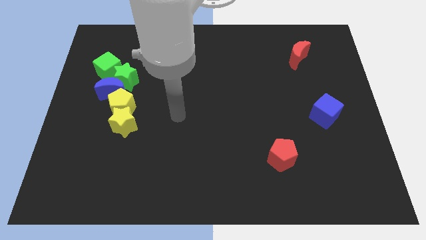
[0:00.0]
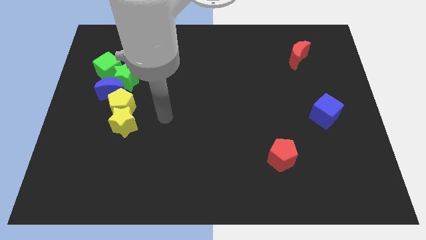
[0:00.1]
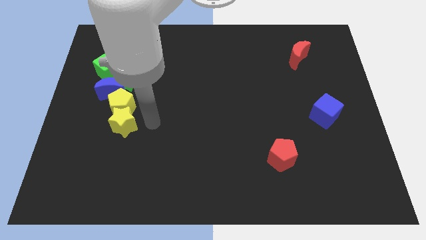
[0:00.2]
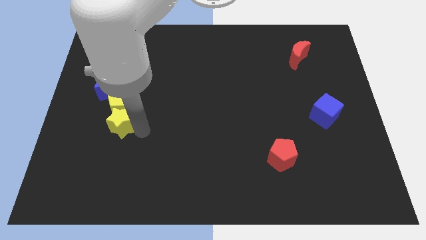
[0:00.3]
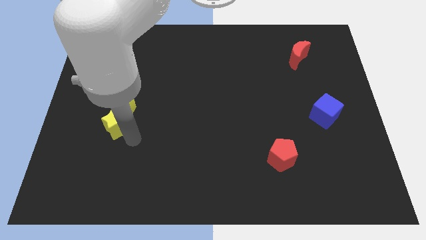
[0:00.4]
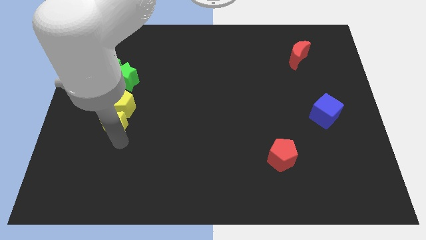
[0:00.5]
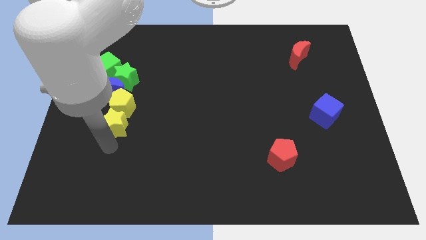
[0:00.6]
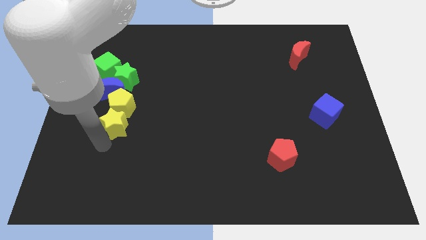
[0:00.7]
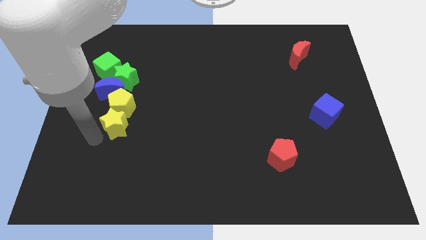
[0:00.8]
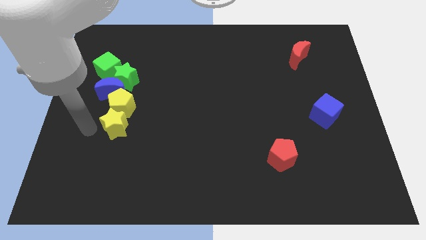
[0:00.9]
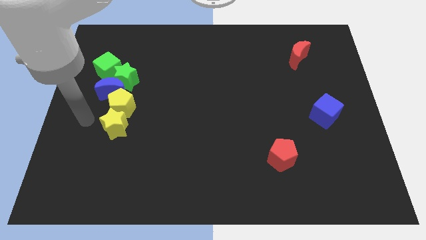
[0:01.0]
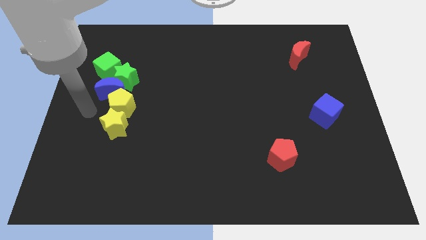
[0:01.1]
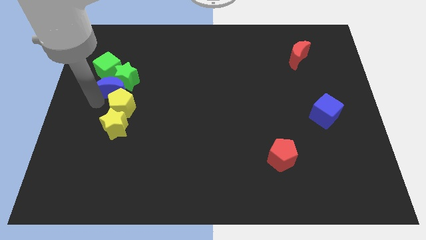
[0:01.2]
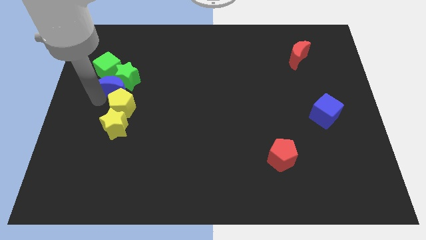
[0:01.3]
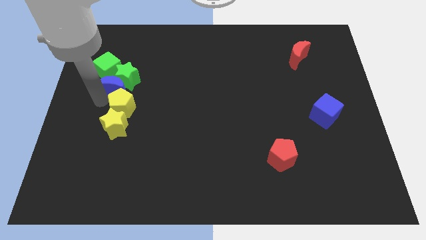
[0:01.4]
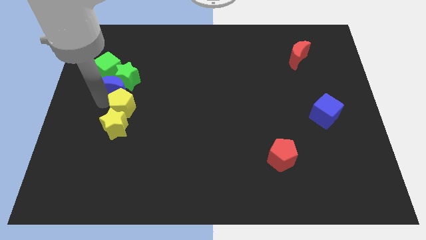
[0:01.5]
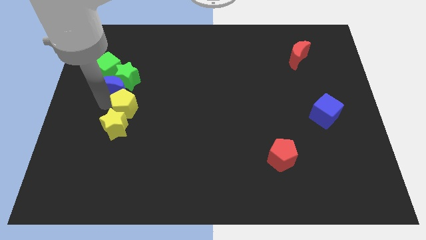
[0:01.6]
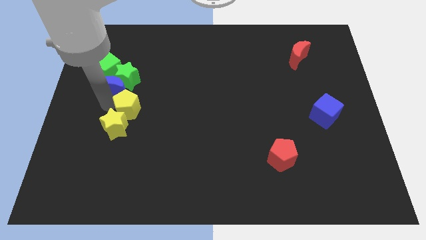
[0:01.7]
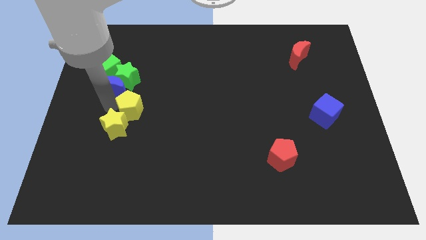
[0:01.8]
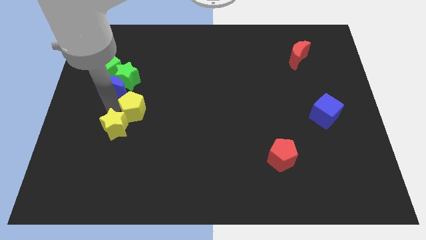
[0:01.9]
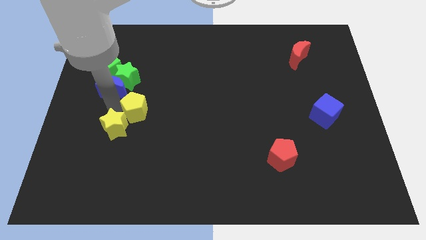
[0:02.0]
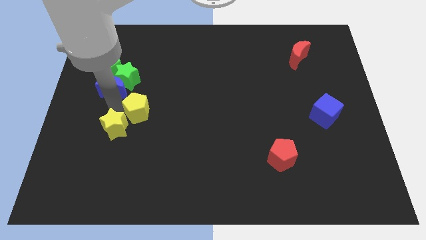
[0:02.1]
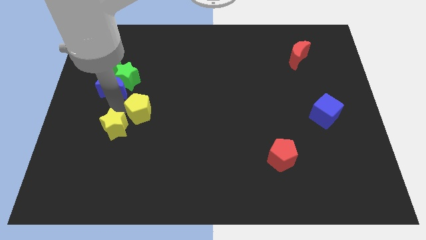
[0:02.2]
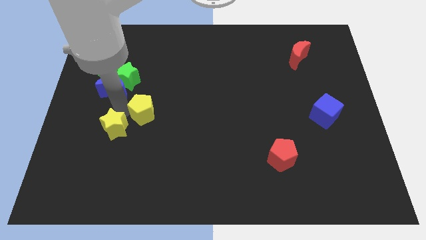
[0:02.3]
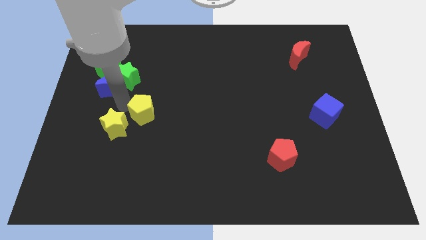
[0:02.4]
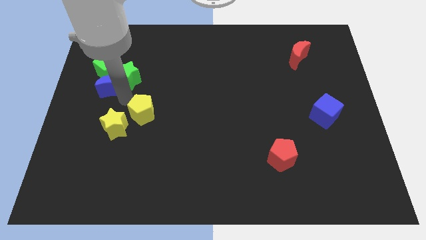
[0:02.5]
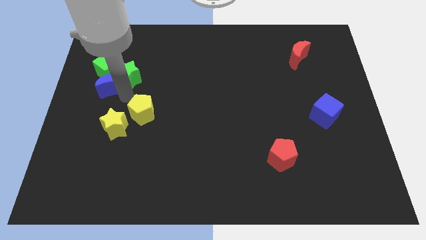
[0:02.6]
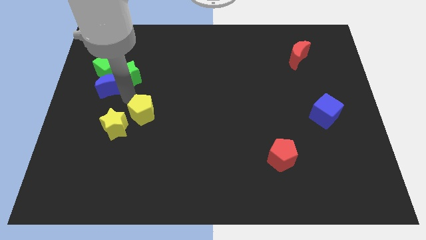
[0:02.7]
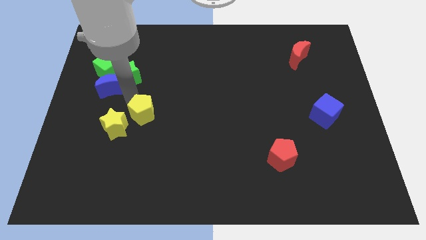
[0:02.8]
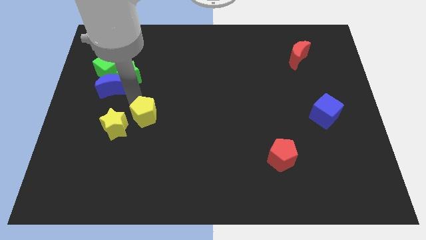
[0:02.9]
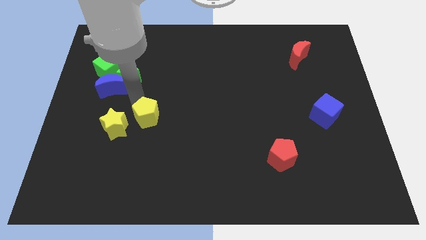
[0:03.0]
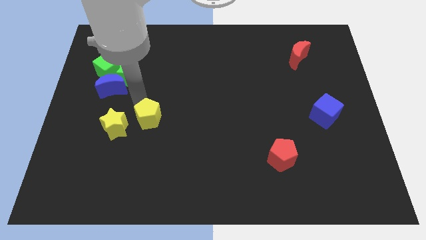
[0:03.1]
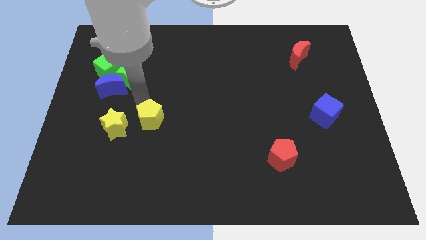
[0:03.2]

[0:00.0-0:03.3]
push the yellow pentagon somewhat downwards and then right

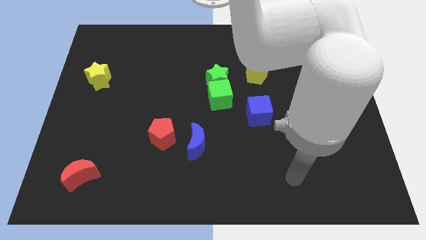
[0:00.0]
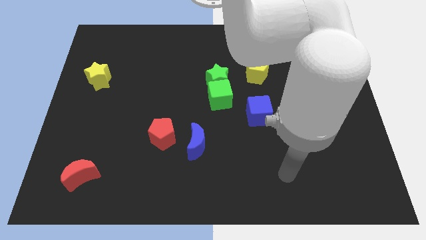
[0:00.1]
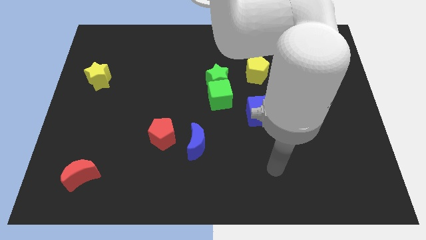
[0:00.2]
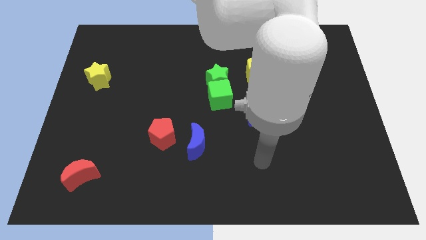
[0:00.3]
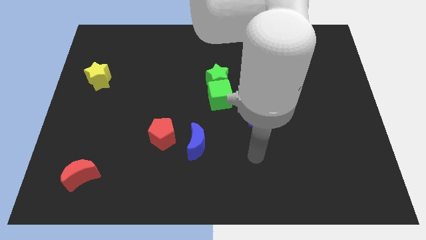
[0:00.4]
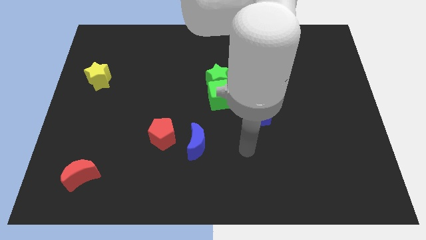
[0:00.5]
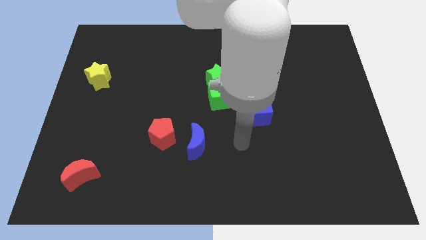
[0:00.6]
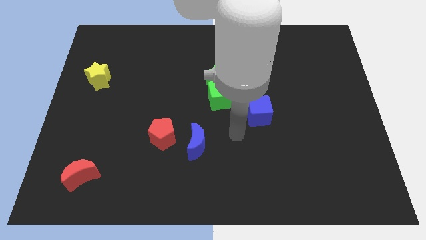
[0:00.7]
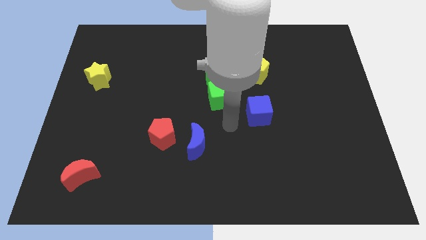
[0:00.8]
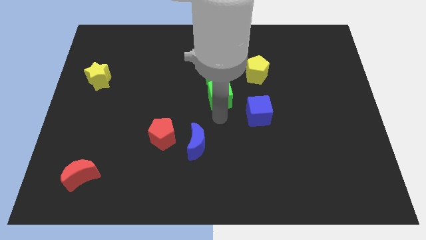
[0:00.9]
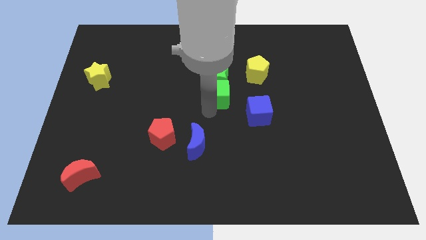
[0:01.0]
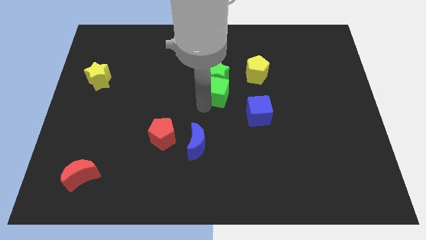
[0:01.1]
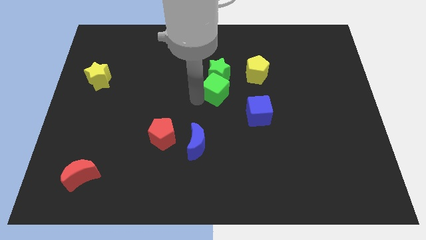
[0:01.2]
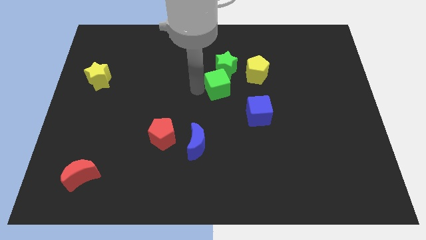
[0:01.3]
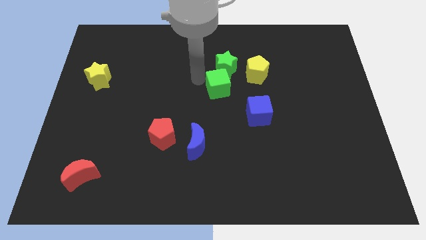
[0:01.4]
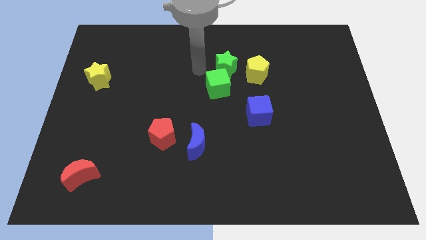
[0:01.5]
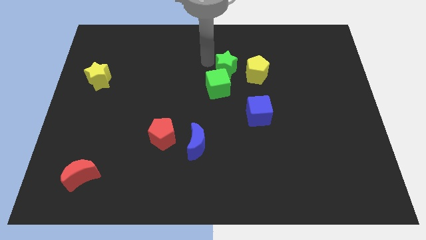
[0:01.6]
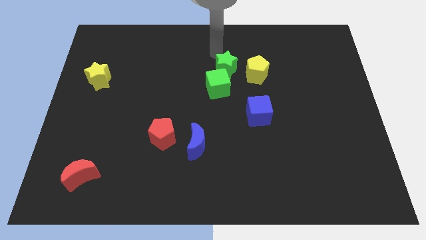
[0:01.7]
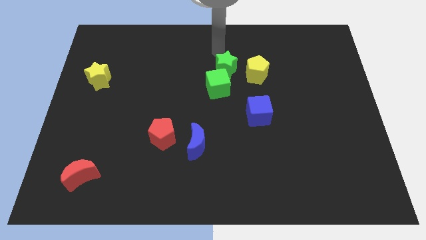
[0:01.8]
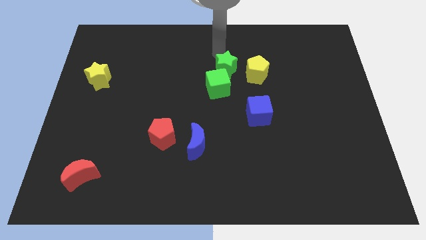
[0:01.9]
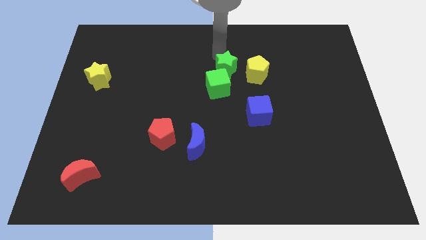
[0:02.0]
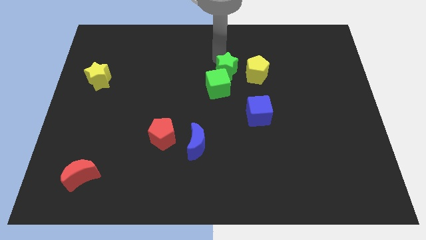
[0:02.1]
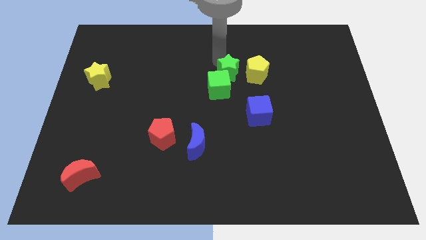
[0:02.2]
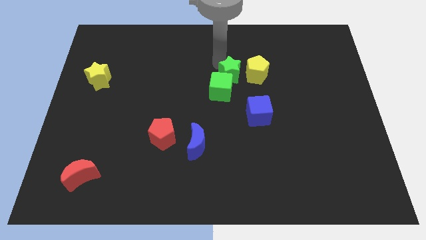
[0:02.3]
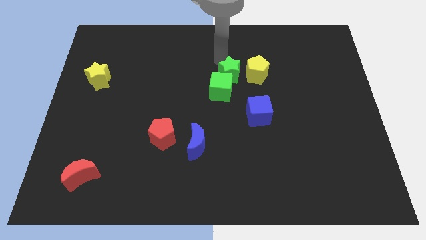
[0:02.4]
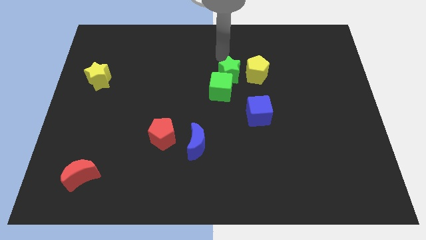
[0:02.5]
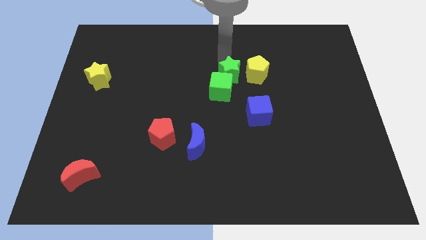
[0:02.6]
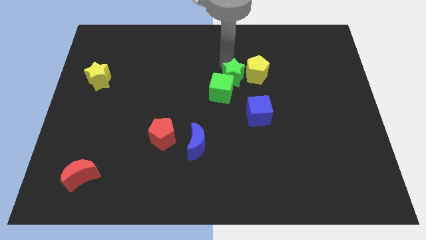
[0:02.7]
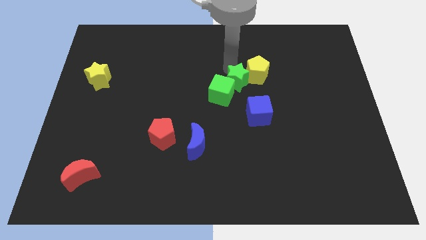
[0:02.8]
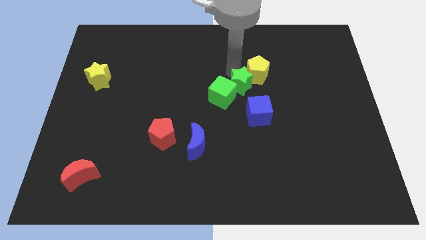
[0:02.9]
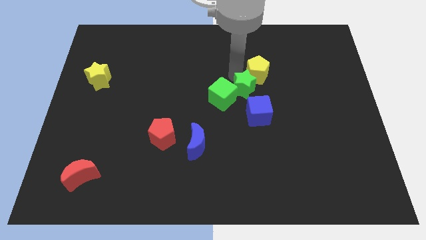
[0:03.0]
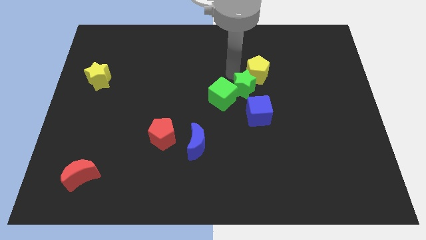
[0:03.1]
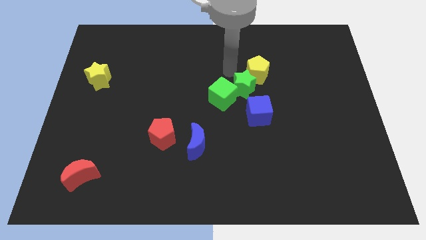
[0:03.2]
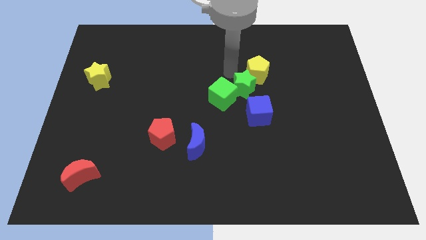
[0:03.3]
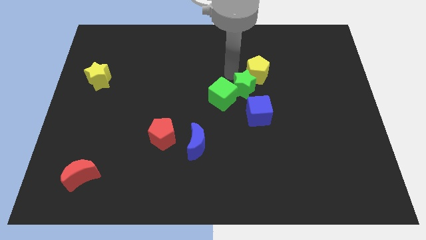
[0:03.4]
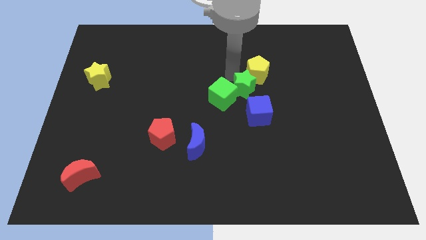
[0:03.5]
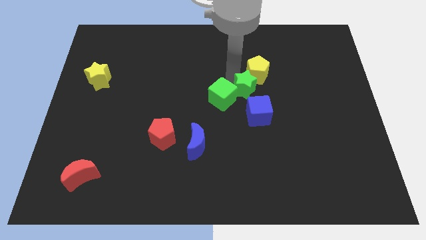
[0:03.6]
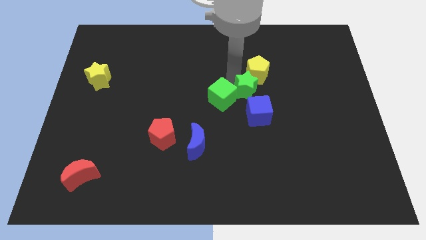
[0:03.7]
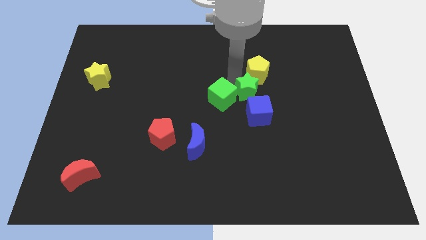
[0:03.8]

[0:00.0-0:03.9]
slightly slide the green star down and to the right

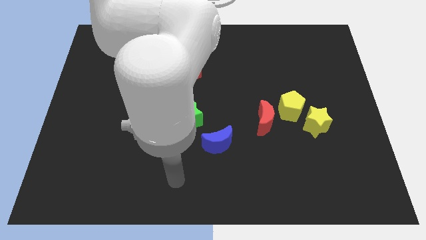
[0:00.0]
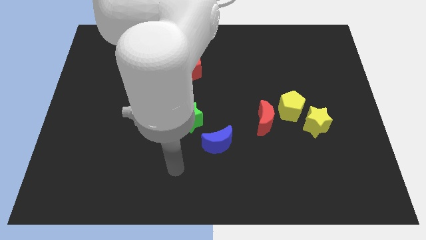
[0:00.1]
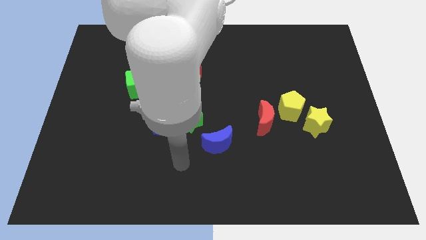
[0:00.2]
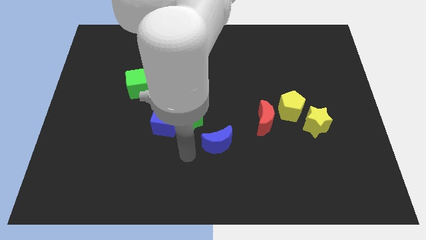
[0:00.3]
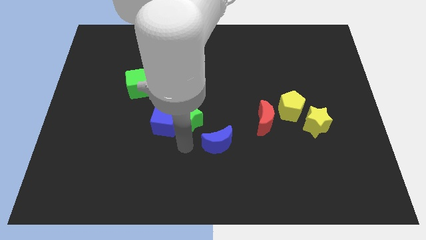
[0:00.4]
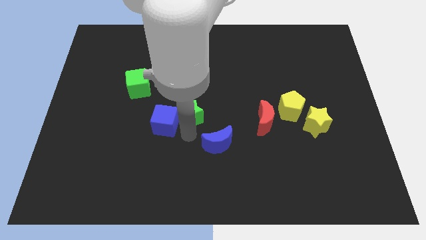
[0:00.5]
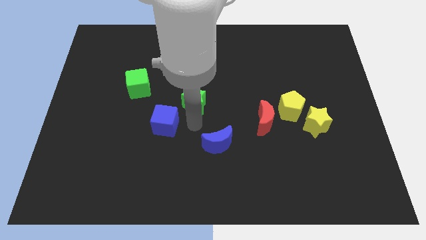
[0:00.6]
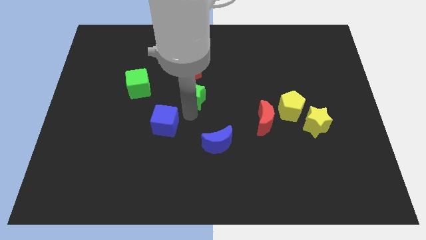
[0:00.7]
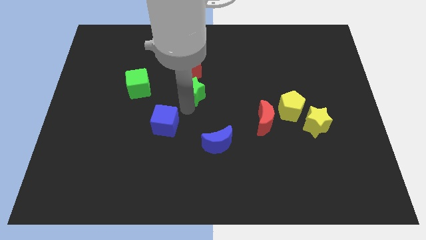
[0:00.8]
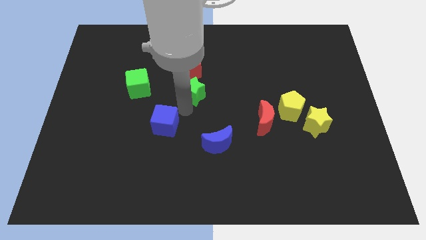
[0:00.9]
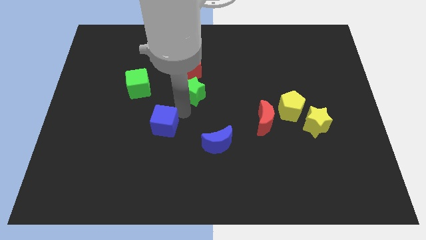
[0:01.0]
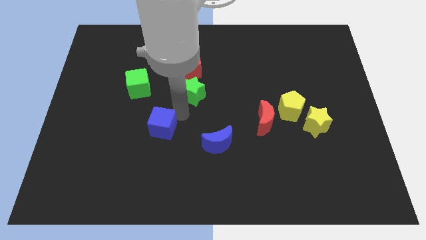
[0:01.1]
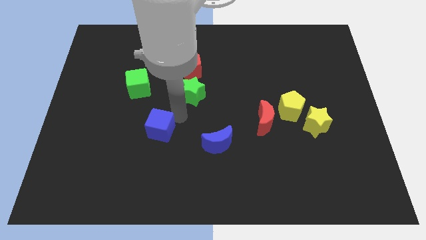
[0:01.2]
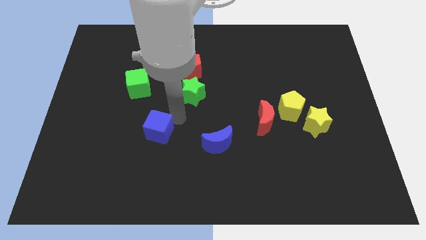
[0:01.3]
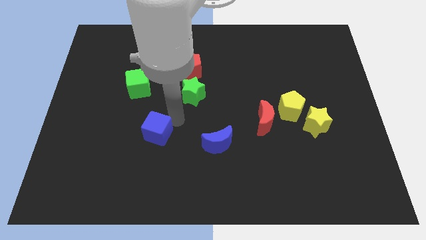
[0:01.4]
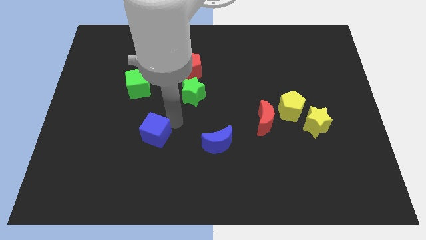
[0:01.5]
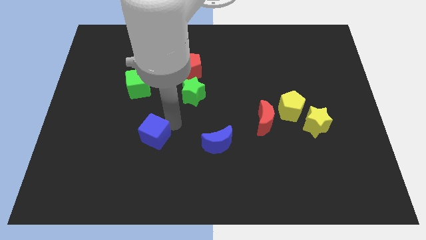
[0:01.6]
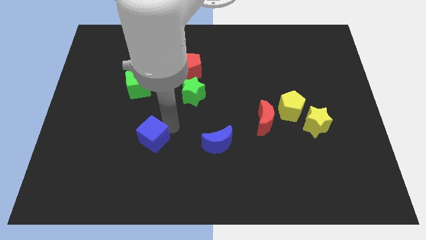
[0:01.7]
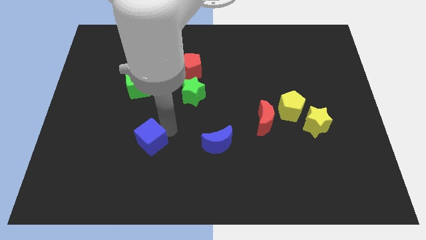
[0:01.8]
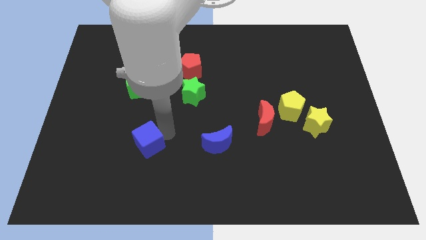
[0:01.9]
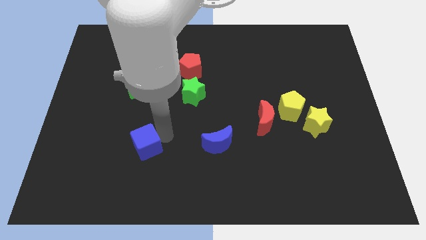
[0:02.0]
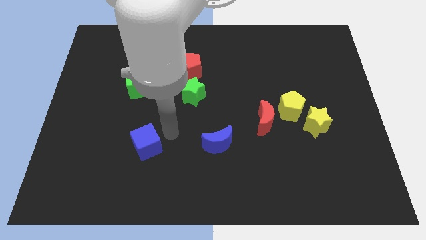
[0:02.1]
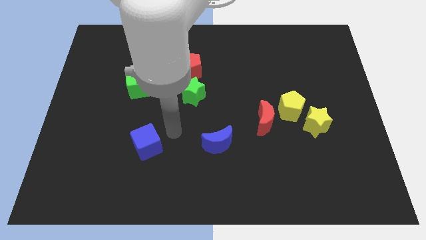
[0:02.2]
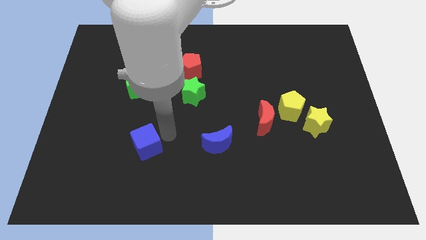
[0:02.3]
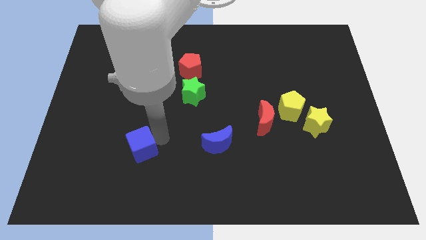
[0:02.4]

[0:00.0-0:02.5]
slightly push the blue cube diagonally down and left
